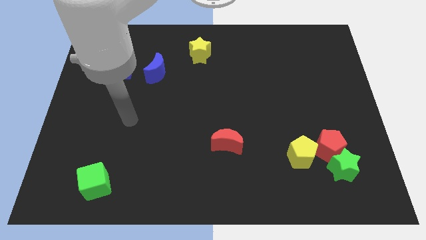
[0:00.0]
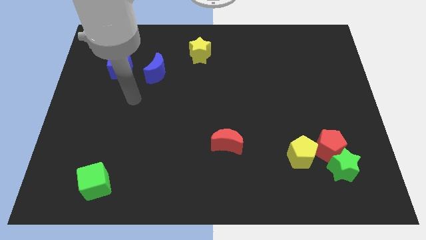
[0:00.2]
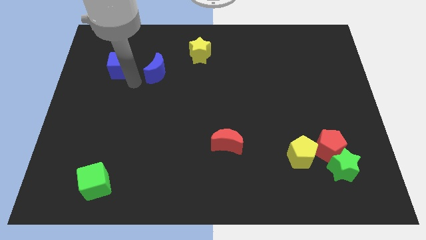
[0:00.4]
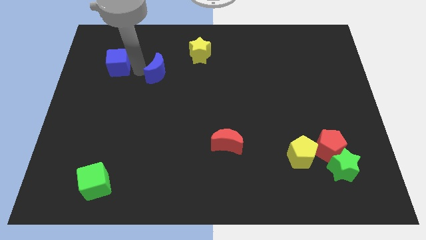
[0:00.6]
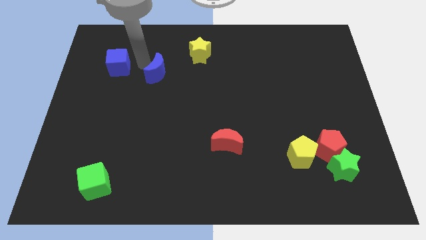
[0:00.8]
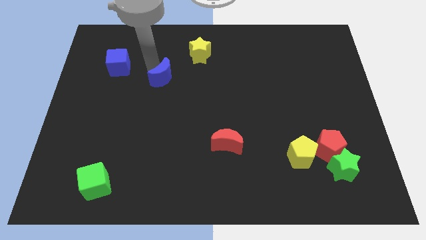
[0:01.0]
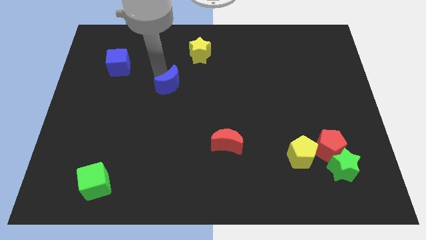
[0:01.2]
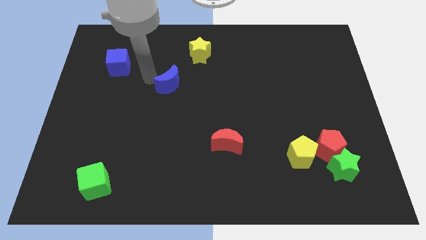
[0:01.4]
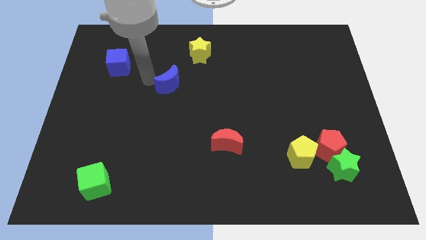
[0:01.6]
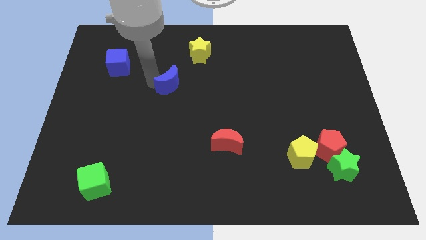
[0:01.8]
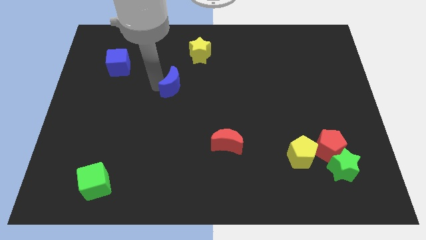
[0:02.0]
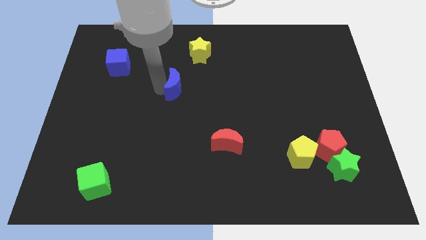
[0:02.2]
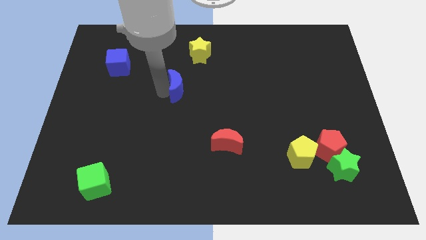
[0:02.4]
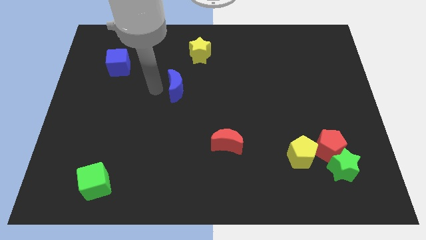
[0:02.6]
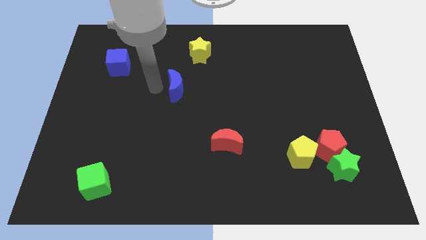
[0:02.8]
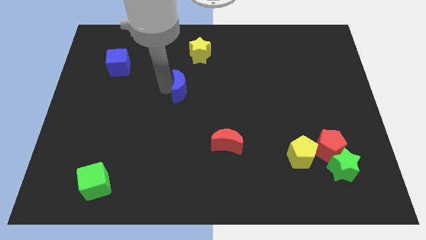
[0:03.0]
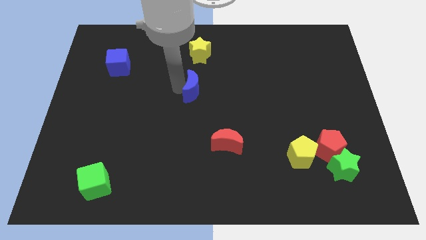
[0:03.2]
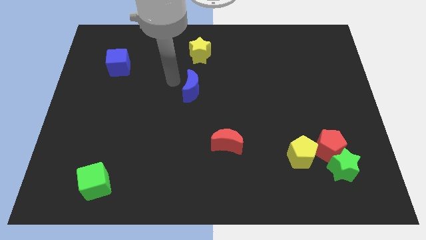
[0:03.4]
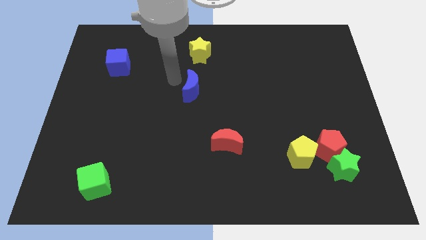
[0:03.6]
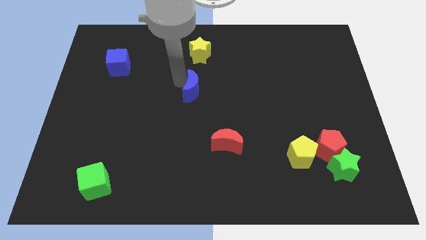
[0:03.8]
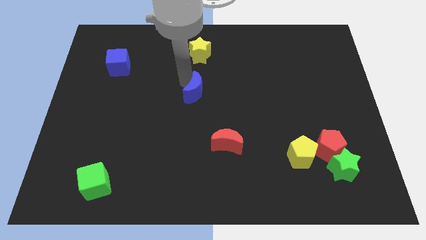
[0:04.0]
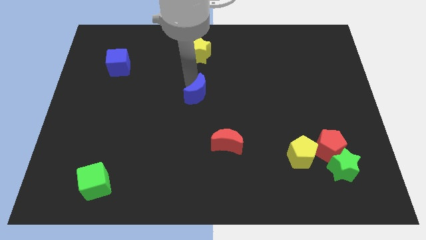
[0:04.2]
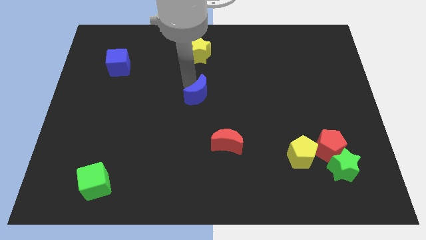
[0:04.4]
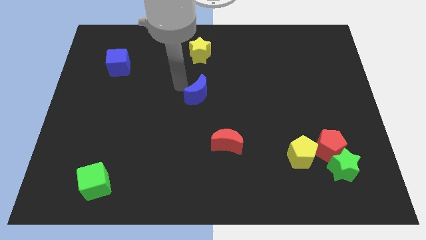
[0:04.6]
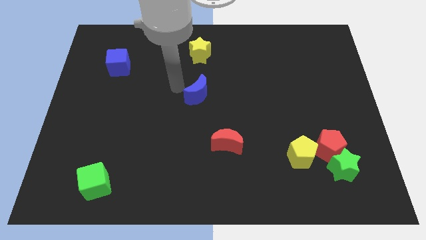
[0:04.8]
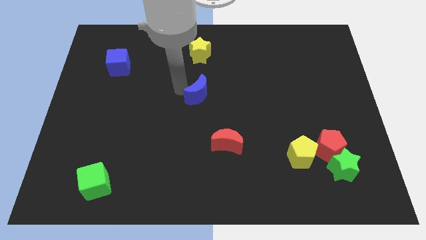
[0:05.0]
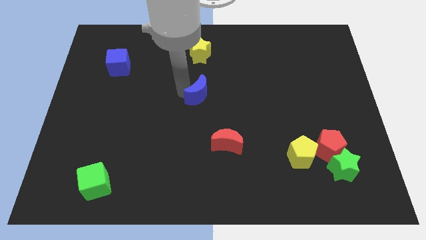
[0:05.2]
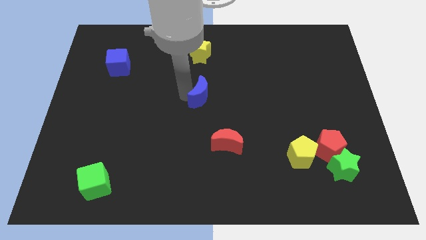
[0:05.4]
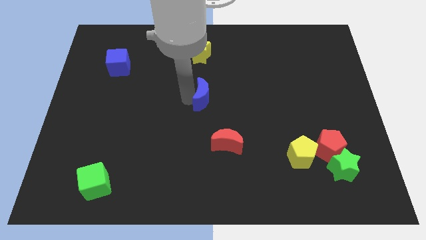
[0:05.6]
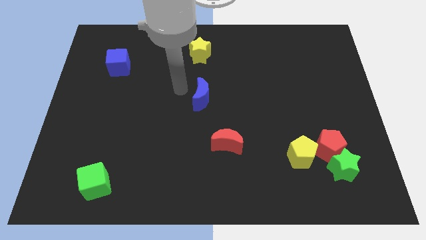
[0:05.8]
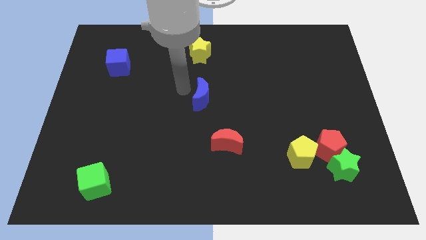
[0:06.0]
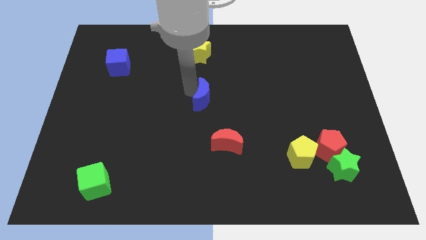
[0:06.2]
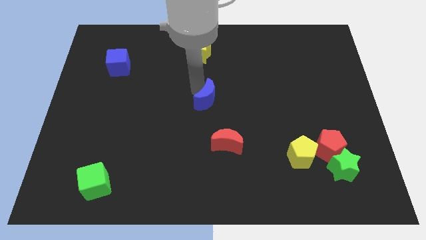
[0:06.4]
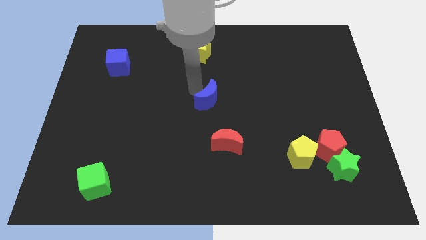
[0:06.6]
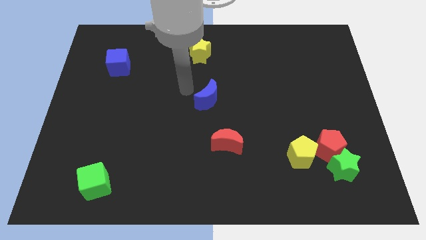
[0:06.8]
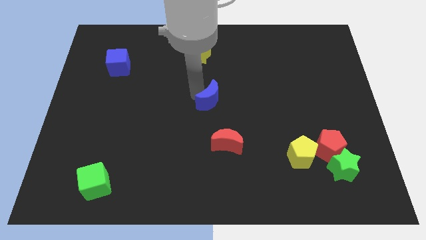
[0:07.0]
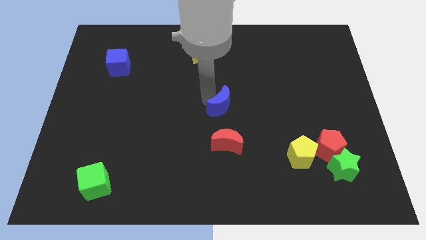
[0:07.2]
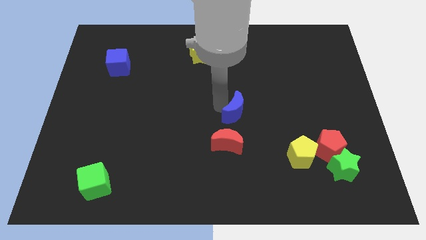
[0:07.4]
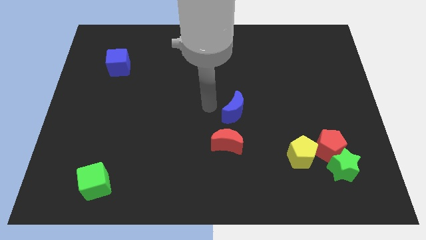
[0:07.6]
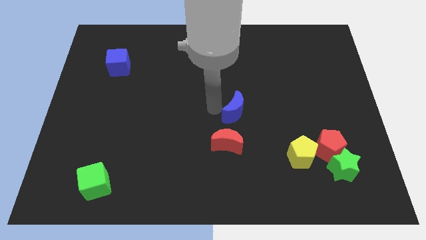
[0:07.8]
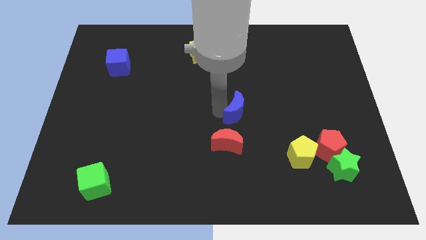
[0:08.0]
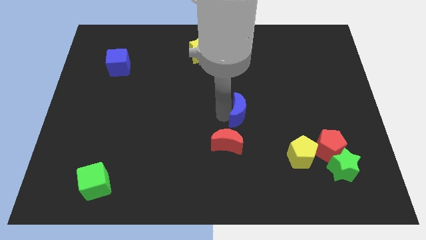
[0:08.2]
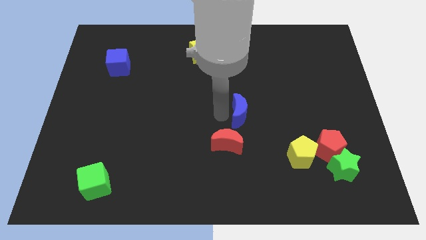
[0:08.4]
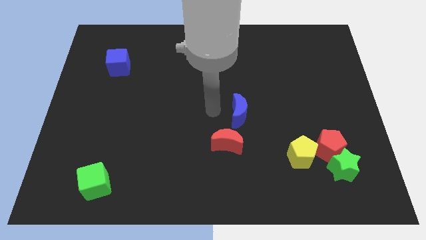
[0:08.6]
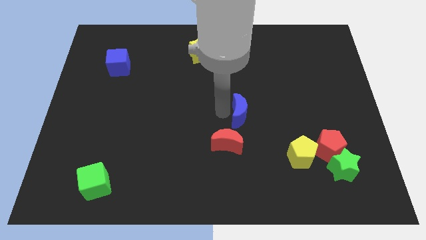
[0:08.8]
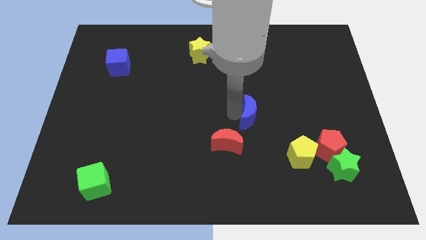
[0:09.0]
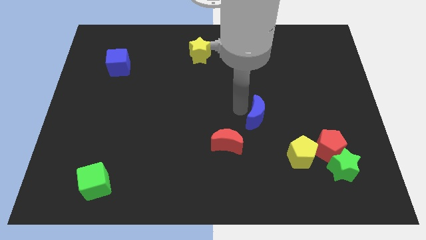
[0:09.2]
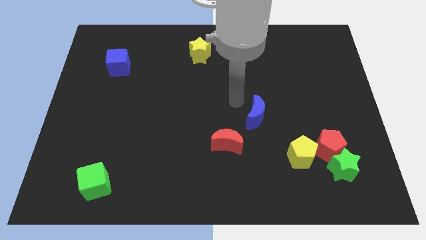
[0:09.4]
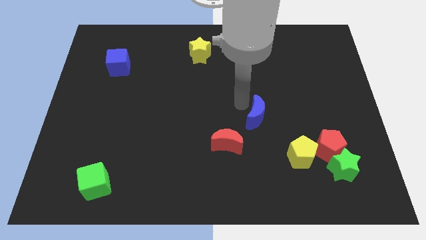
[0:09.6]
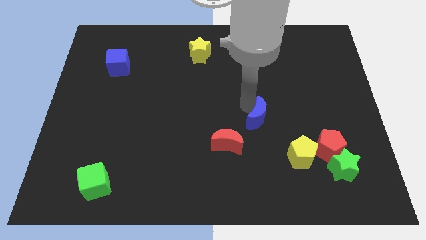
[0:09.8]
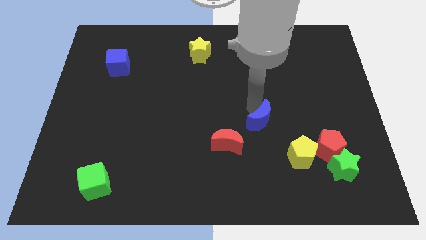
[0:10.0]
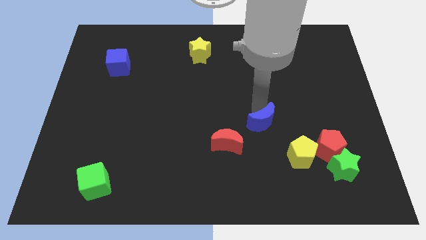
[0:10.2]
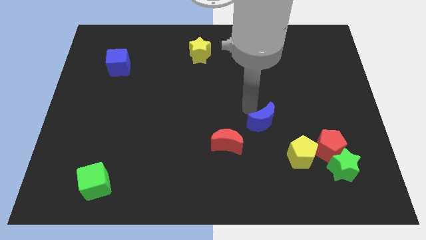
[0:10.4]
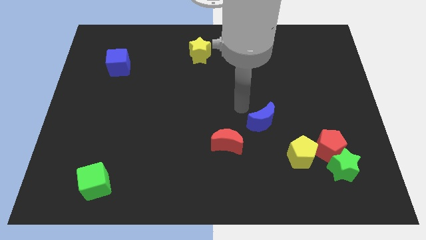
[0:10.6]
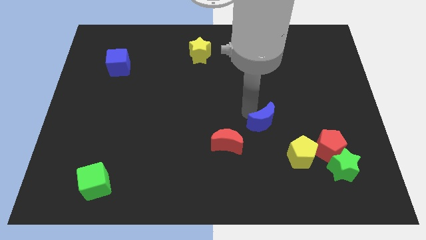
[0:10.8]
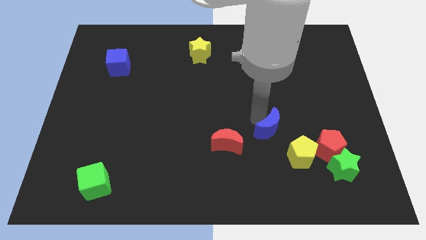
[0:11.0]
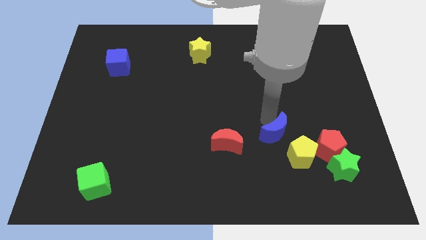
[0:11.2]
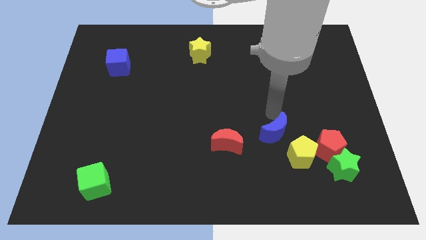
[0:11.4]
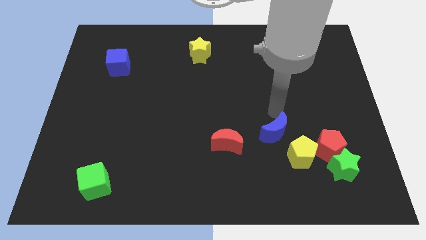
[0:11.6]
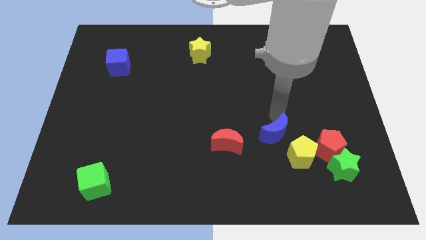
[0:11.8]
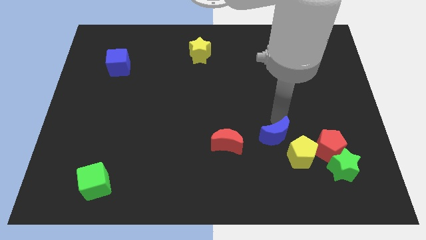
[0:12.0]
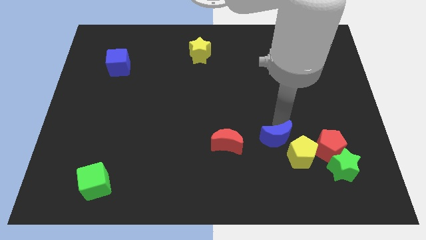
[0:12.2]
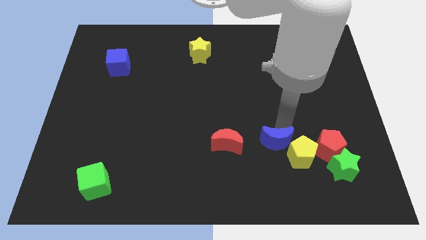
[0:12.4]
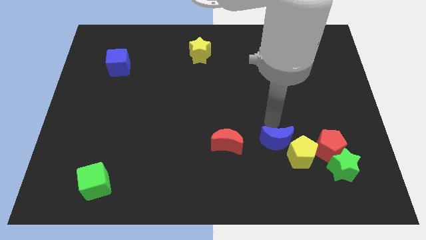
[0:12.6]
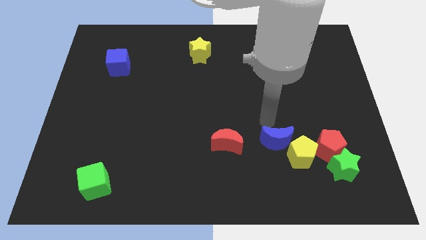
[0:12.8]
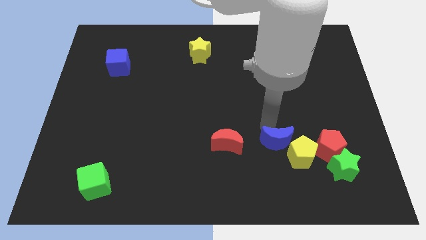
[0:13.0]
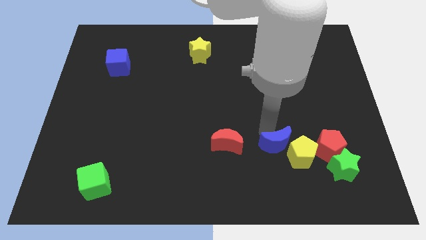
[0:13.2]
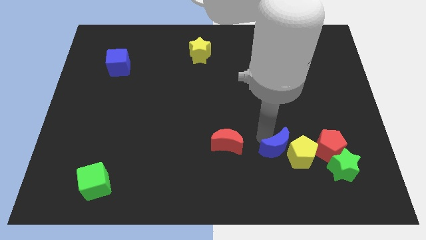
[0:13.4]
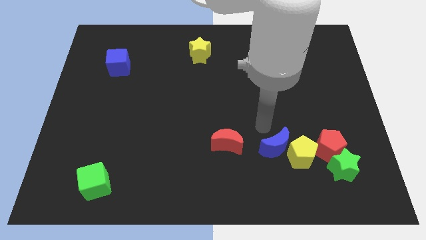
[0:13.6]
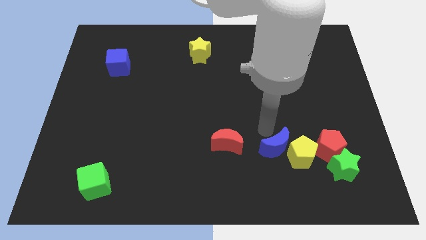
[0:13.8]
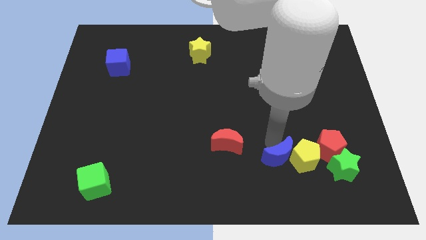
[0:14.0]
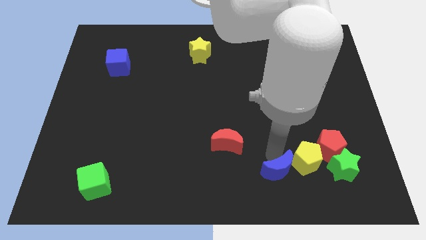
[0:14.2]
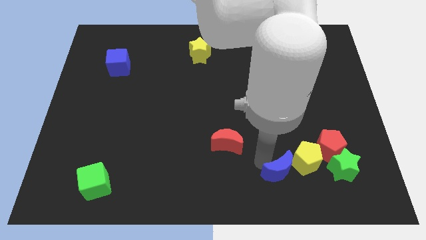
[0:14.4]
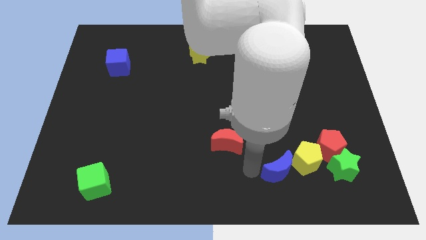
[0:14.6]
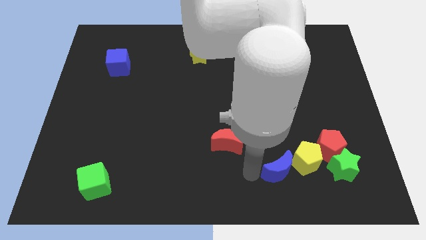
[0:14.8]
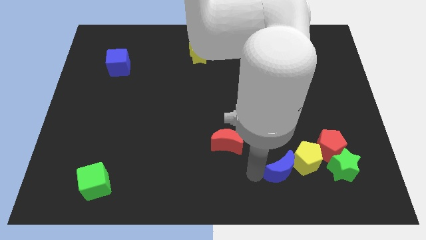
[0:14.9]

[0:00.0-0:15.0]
move the blue moon to the bottom left side of the red pentagon
